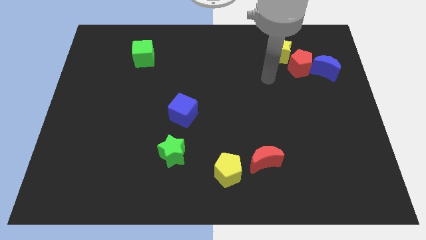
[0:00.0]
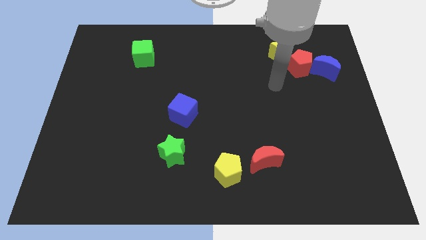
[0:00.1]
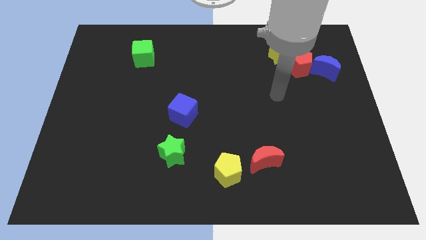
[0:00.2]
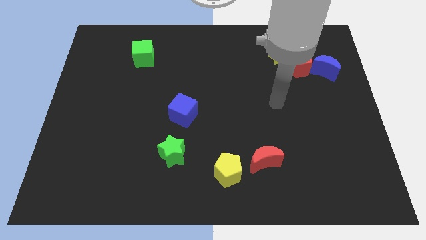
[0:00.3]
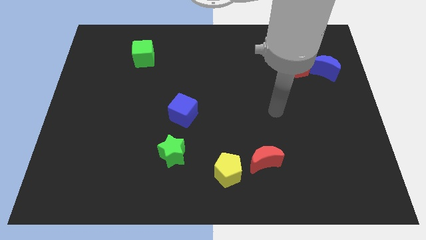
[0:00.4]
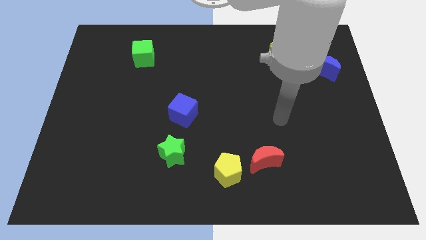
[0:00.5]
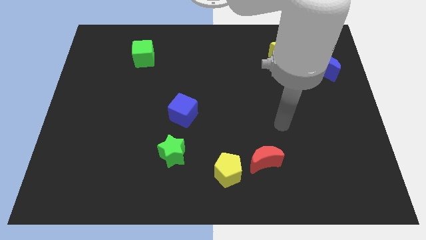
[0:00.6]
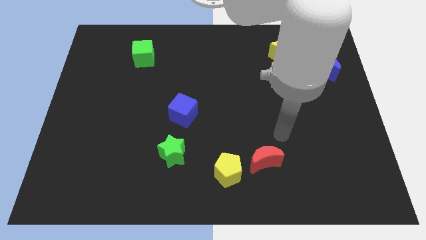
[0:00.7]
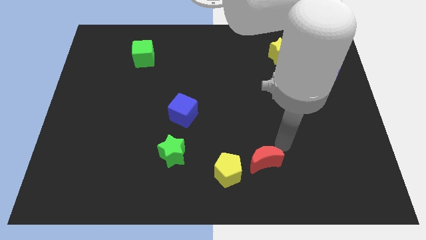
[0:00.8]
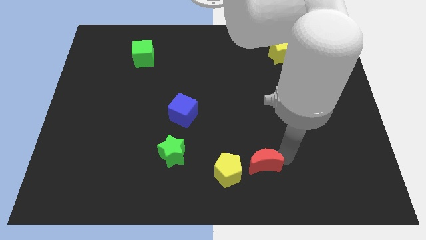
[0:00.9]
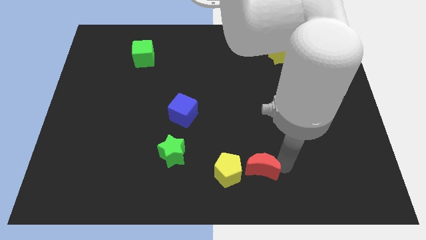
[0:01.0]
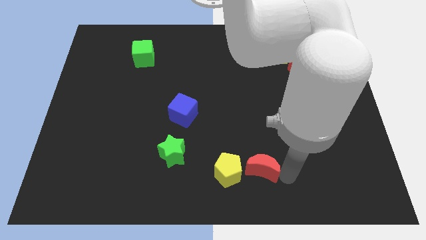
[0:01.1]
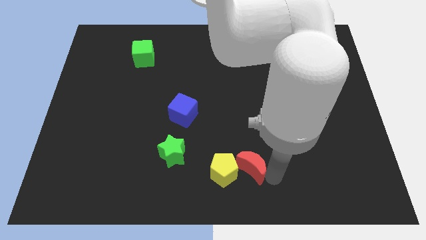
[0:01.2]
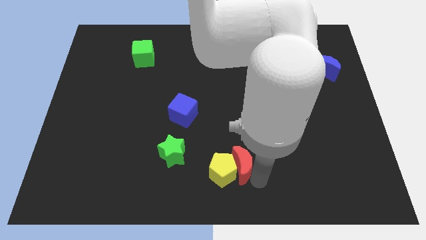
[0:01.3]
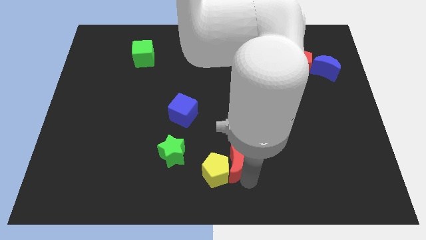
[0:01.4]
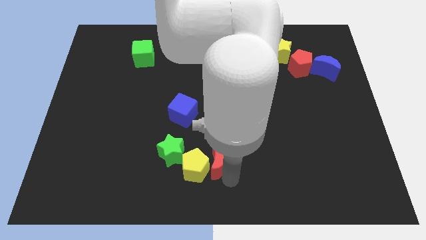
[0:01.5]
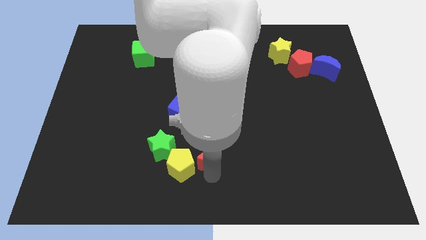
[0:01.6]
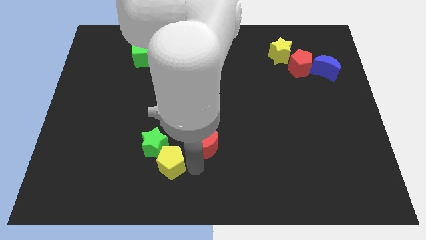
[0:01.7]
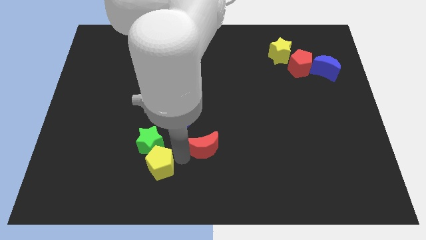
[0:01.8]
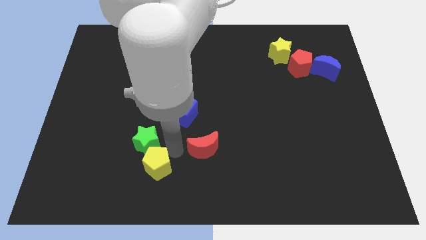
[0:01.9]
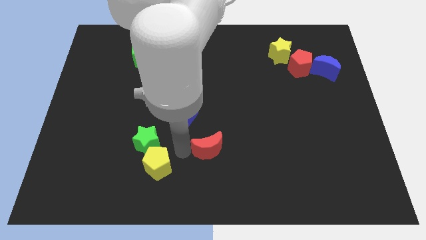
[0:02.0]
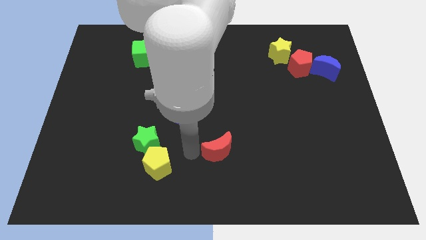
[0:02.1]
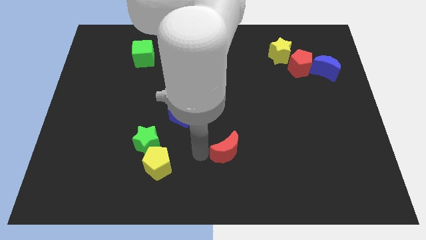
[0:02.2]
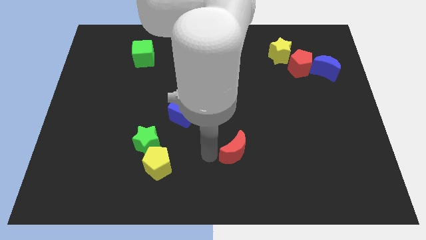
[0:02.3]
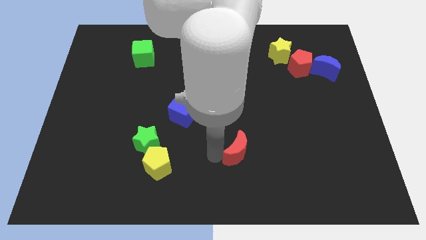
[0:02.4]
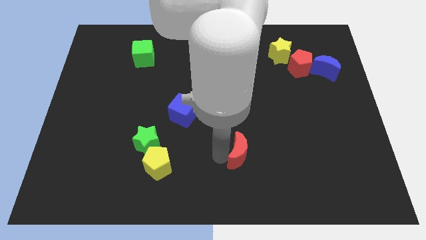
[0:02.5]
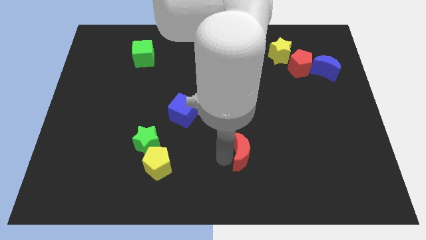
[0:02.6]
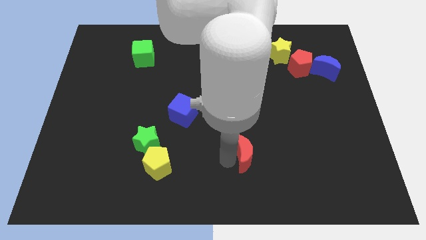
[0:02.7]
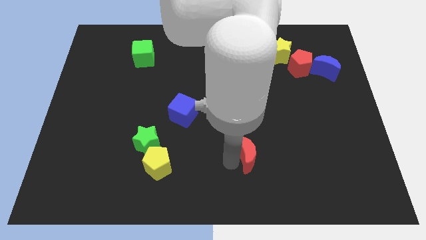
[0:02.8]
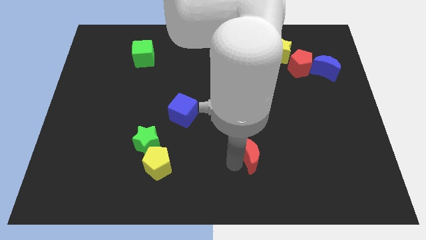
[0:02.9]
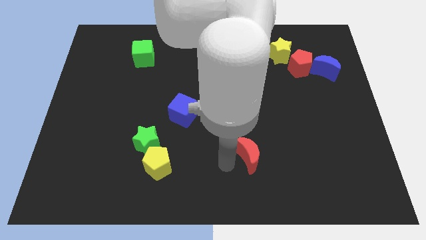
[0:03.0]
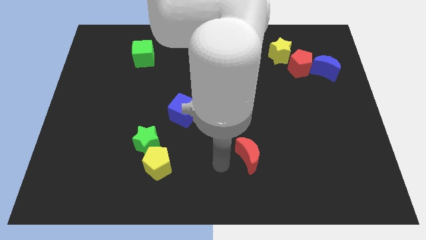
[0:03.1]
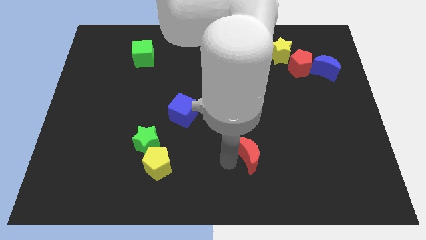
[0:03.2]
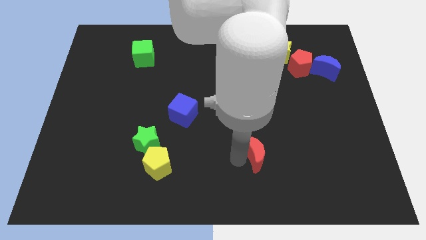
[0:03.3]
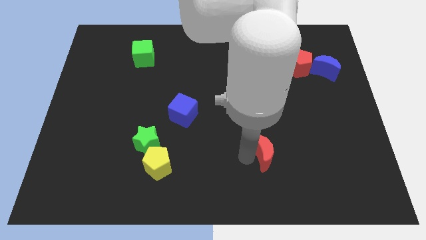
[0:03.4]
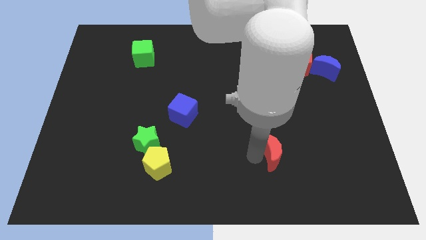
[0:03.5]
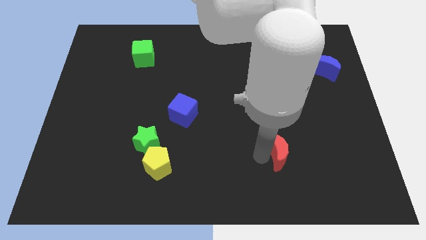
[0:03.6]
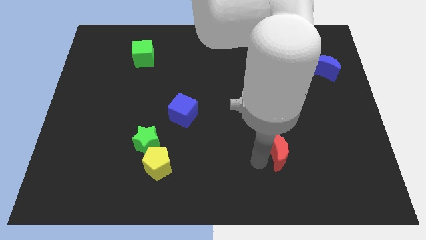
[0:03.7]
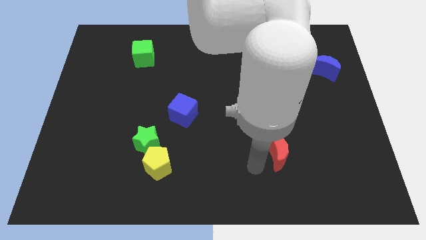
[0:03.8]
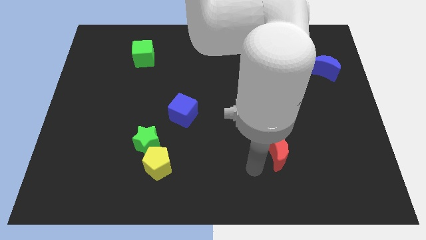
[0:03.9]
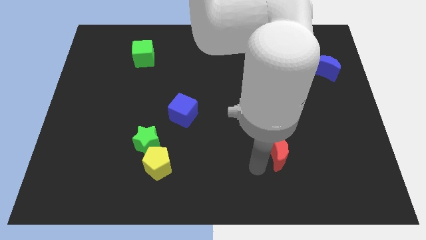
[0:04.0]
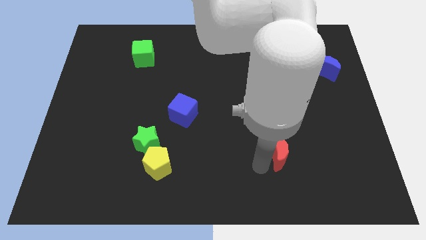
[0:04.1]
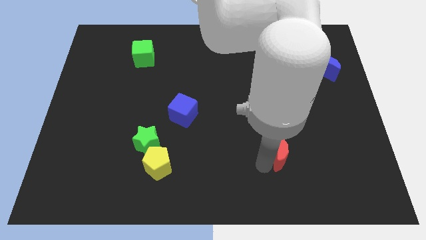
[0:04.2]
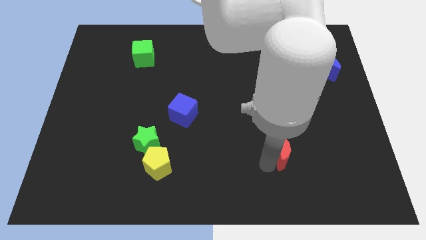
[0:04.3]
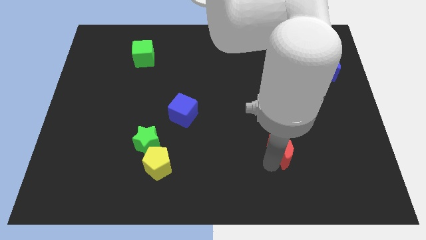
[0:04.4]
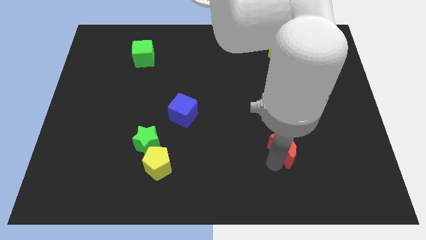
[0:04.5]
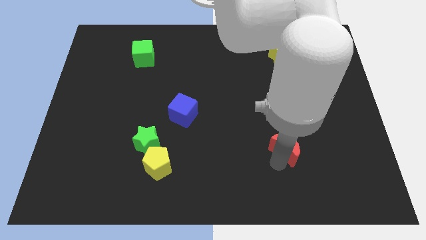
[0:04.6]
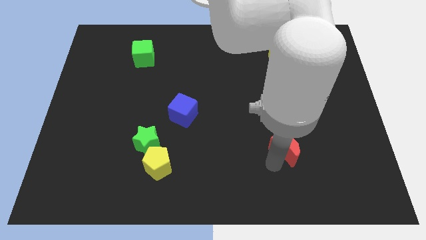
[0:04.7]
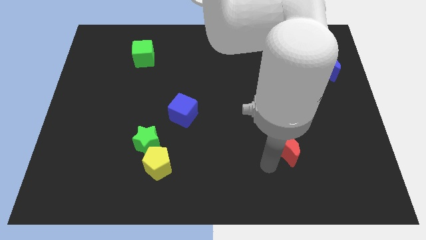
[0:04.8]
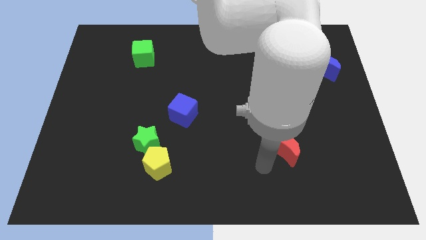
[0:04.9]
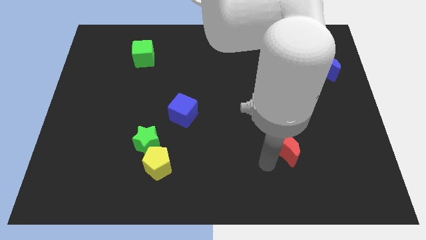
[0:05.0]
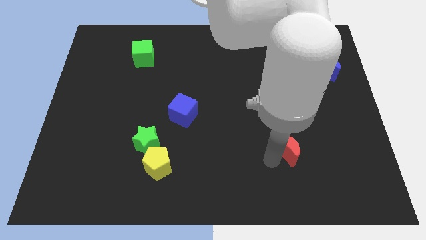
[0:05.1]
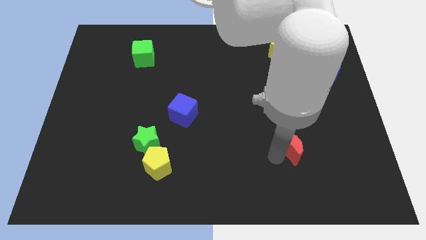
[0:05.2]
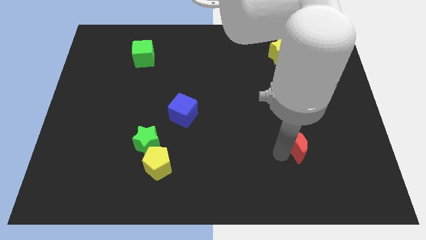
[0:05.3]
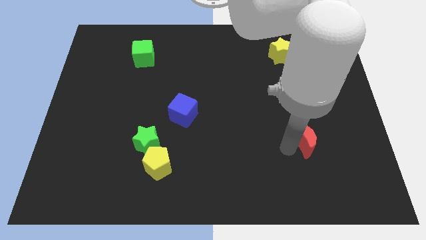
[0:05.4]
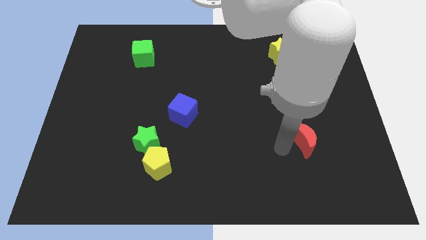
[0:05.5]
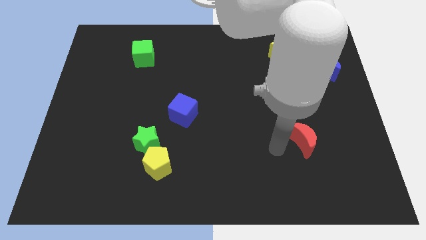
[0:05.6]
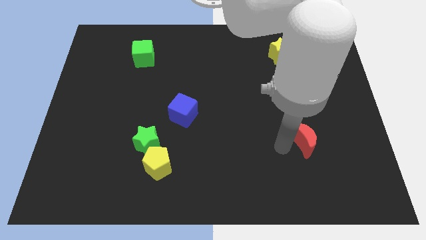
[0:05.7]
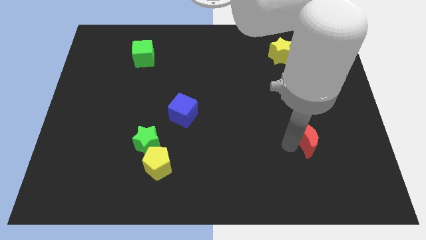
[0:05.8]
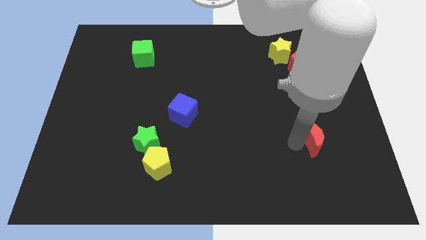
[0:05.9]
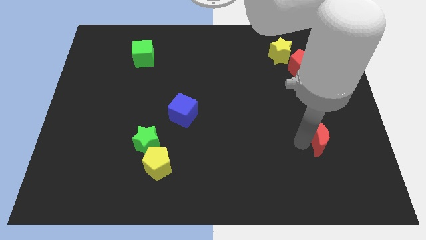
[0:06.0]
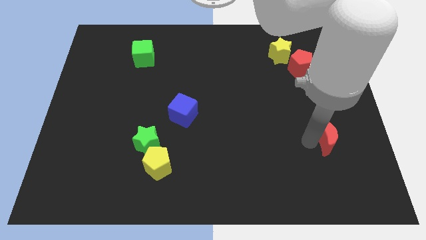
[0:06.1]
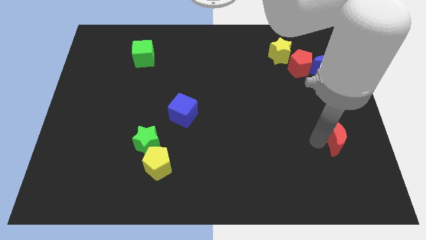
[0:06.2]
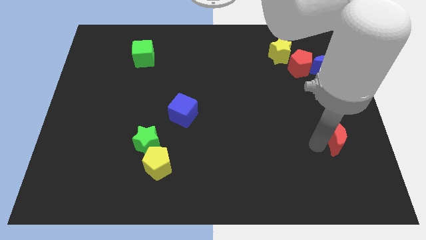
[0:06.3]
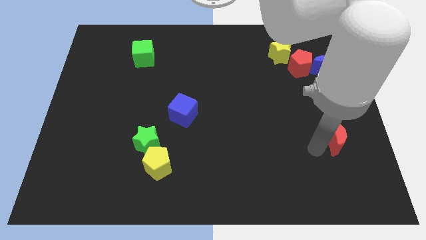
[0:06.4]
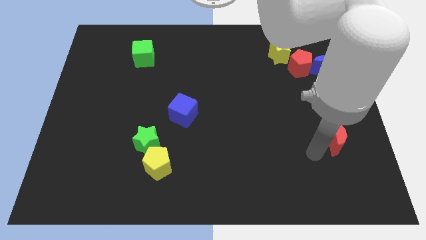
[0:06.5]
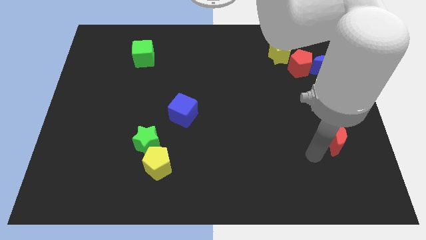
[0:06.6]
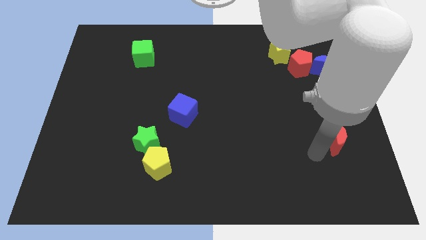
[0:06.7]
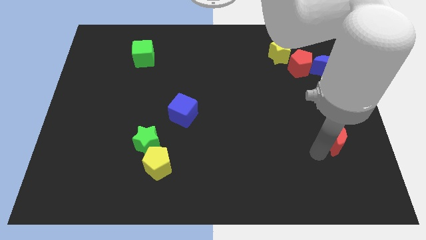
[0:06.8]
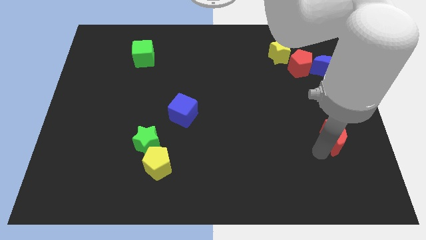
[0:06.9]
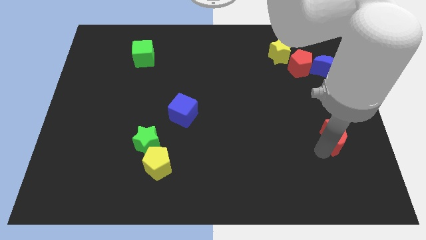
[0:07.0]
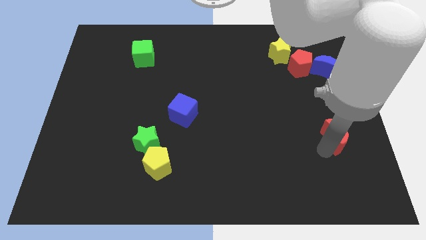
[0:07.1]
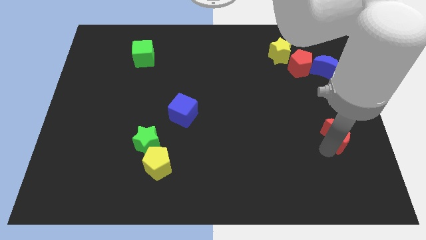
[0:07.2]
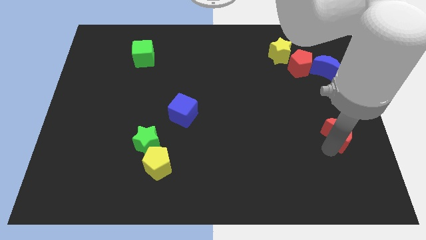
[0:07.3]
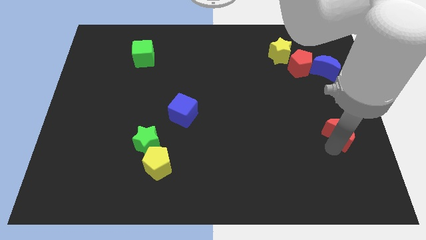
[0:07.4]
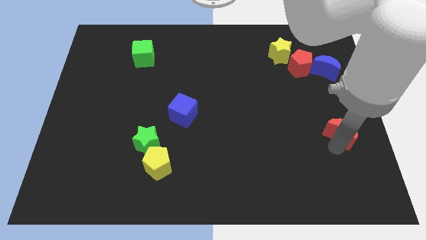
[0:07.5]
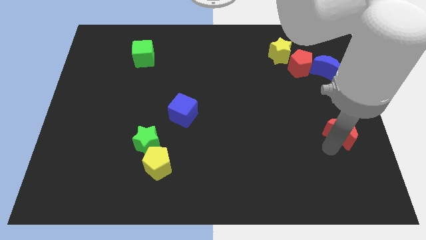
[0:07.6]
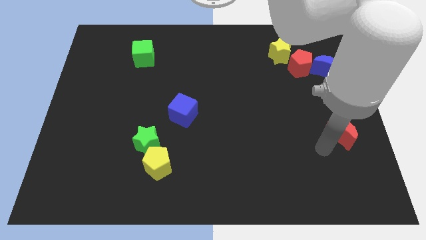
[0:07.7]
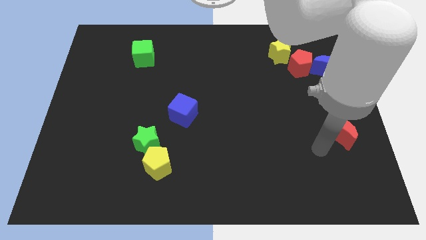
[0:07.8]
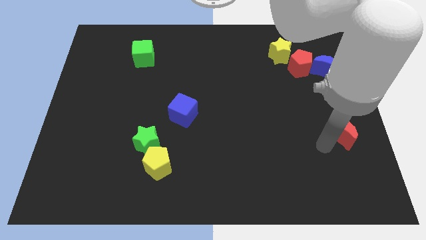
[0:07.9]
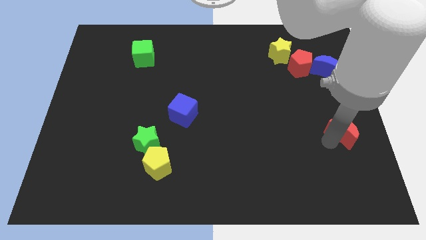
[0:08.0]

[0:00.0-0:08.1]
put the red moon to the right side
